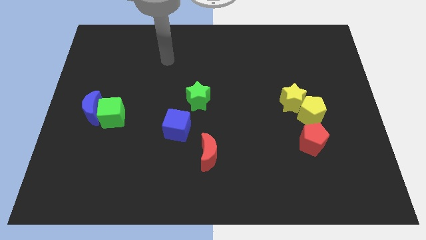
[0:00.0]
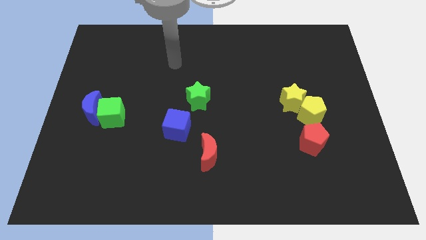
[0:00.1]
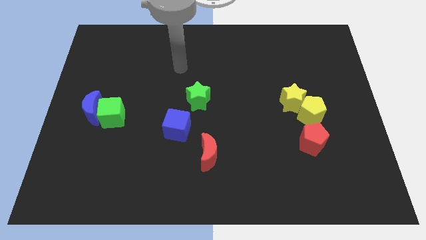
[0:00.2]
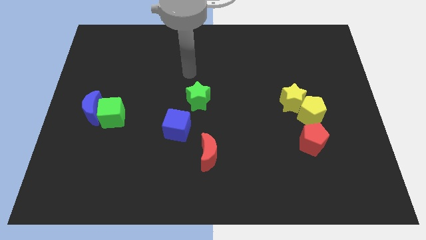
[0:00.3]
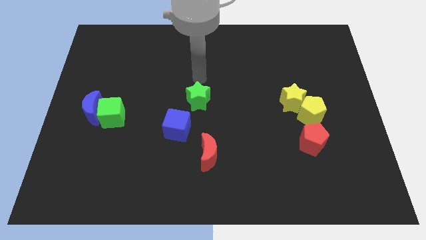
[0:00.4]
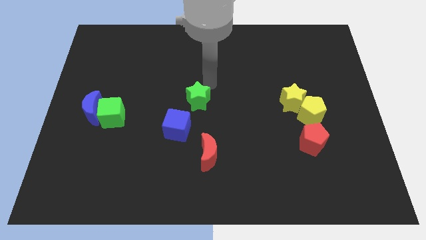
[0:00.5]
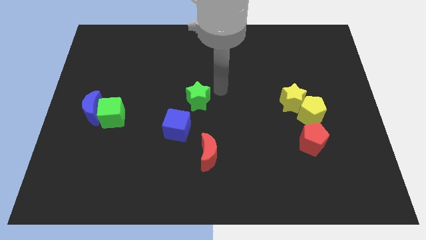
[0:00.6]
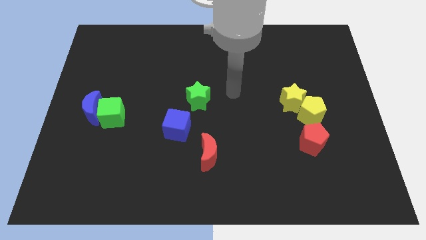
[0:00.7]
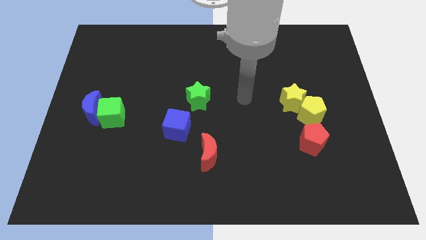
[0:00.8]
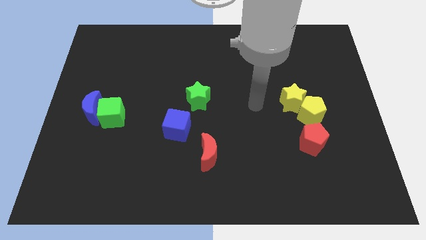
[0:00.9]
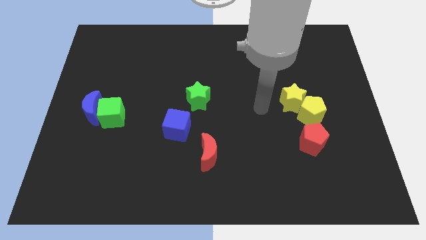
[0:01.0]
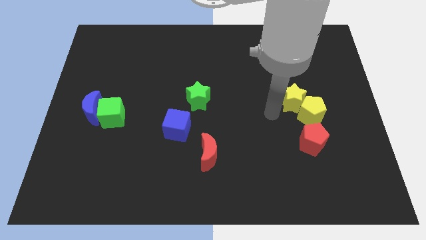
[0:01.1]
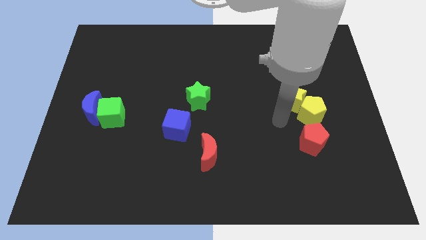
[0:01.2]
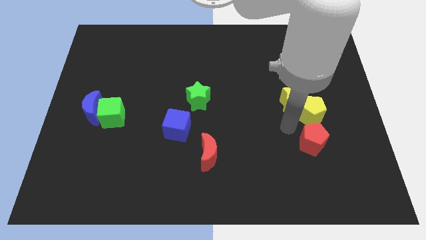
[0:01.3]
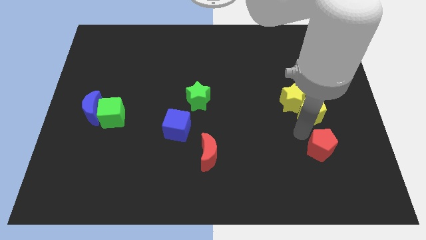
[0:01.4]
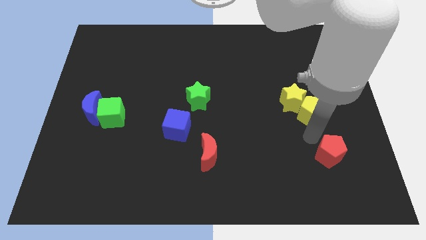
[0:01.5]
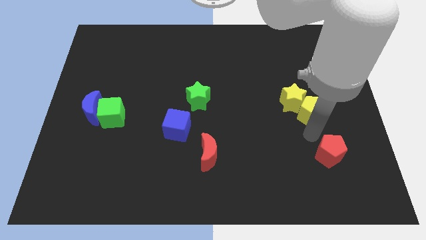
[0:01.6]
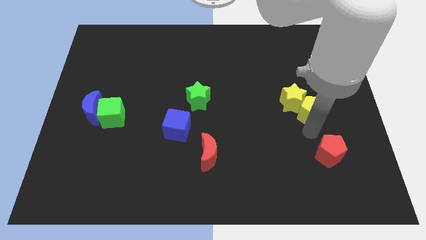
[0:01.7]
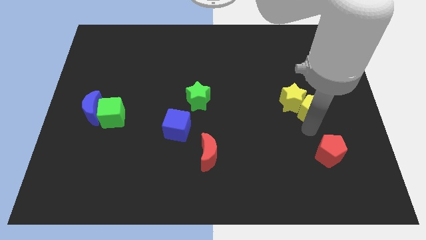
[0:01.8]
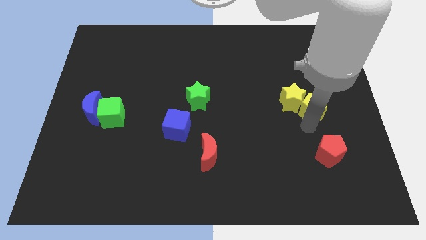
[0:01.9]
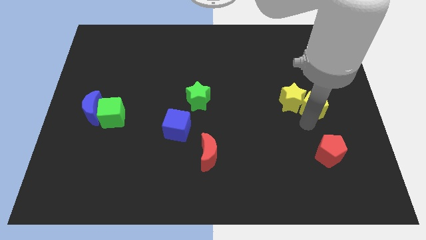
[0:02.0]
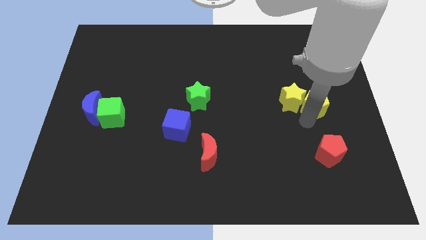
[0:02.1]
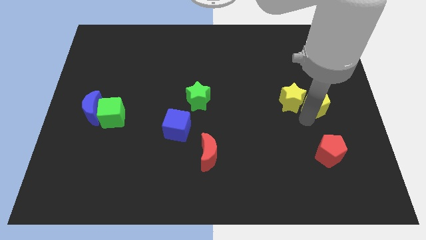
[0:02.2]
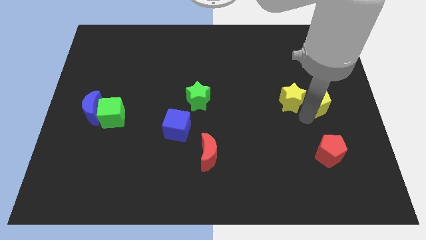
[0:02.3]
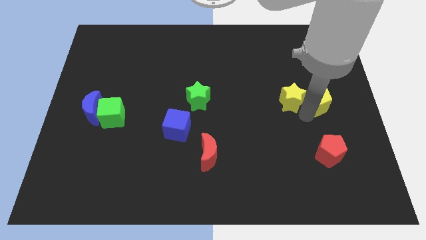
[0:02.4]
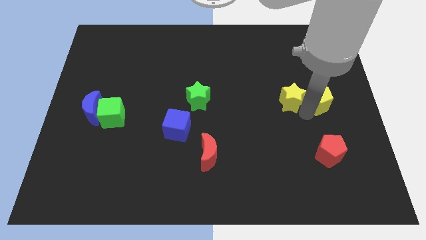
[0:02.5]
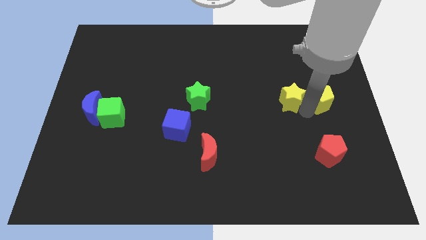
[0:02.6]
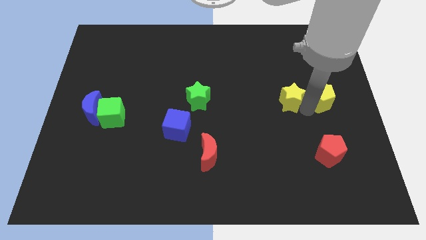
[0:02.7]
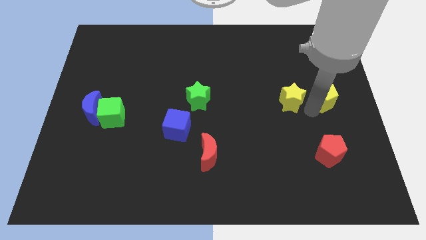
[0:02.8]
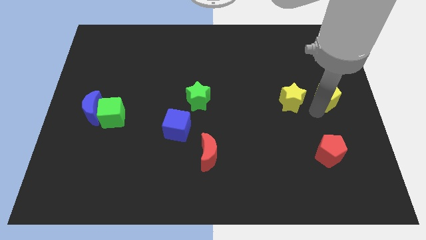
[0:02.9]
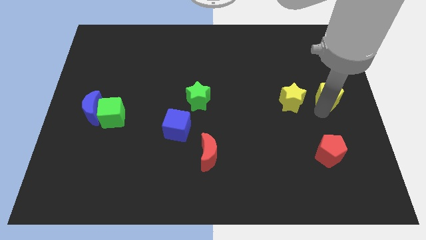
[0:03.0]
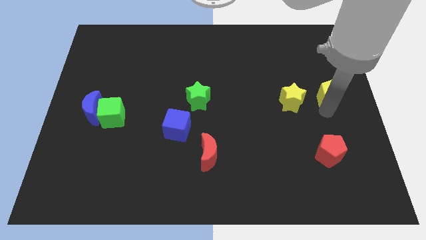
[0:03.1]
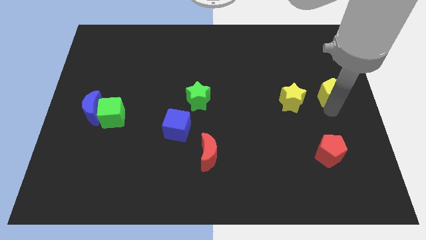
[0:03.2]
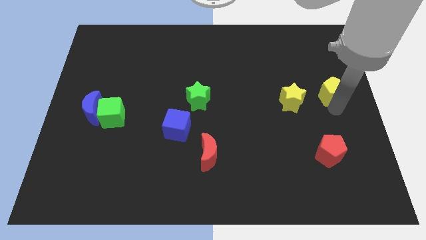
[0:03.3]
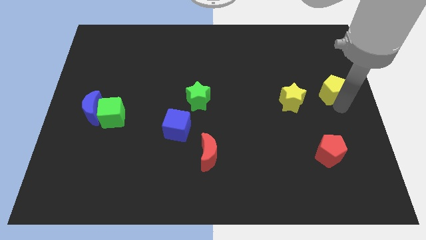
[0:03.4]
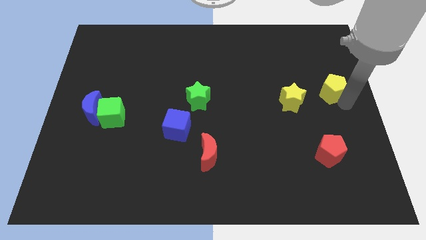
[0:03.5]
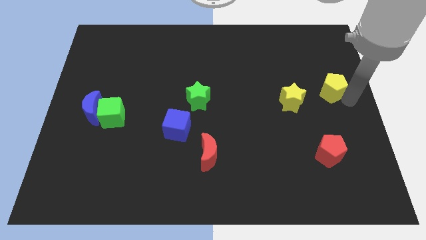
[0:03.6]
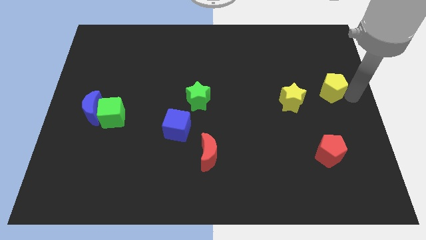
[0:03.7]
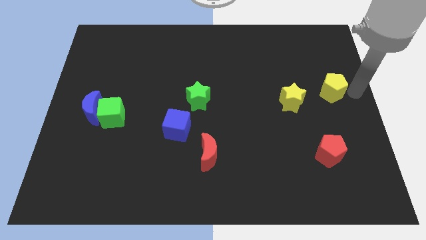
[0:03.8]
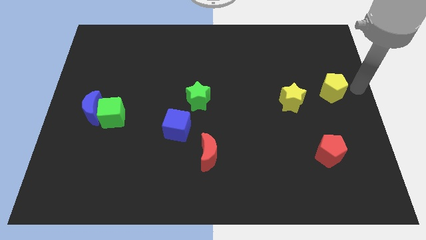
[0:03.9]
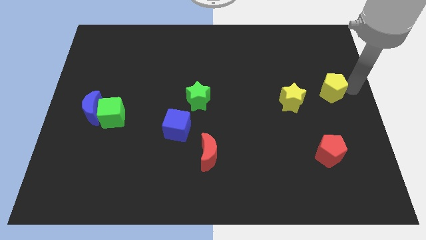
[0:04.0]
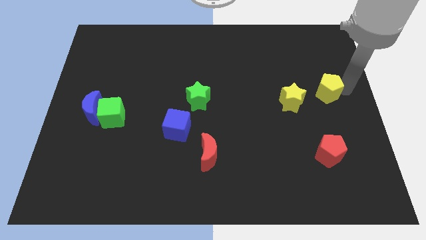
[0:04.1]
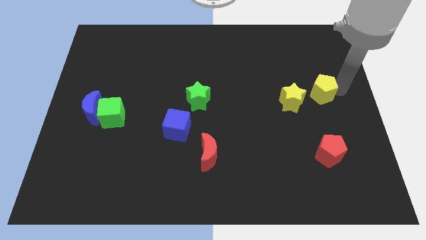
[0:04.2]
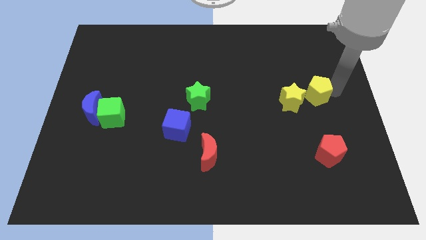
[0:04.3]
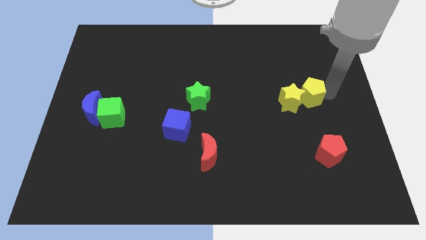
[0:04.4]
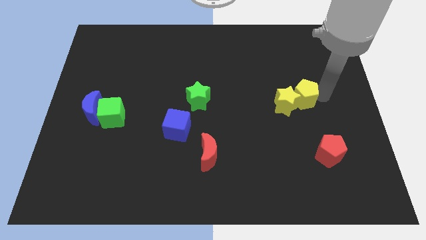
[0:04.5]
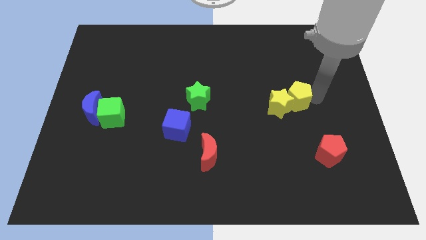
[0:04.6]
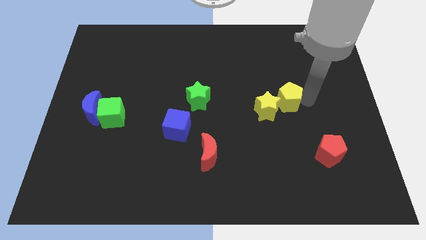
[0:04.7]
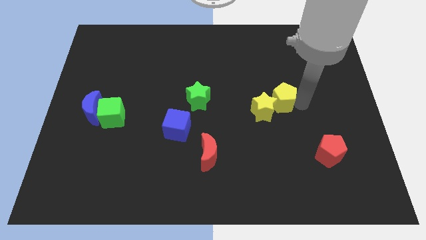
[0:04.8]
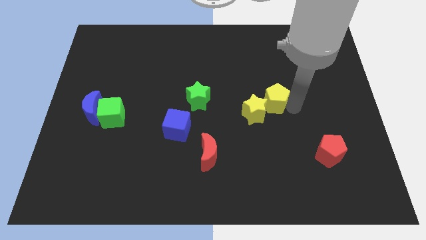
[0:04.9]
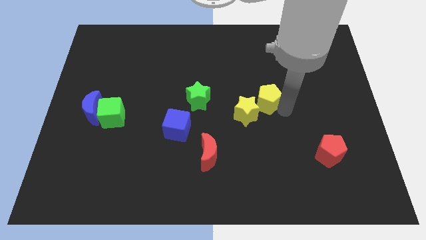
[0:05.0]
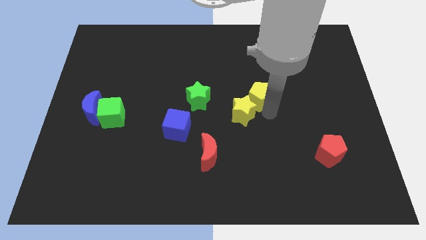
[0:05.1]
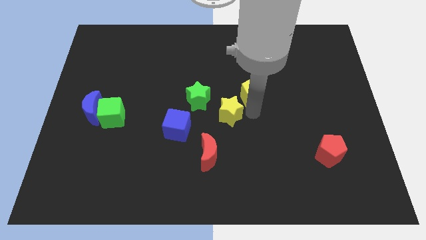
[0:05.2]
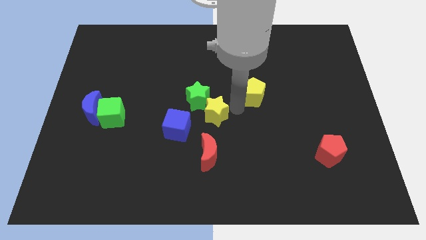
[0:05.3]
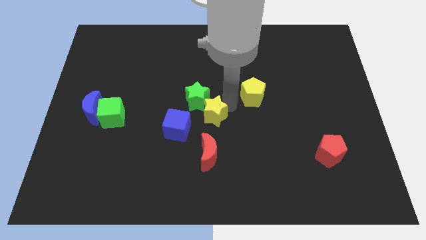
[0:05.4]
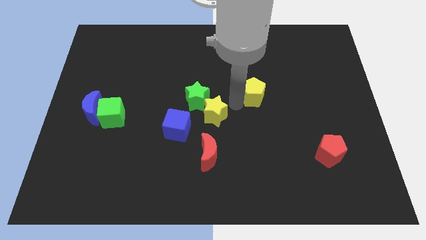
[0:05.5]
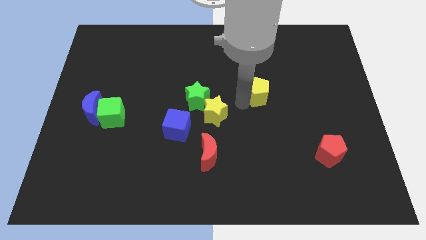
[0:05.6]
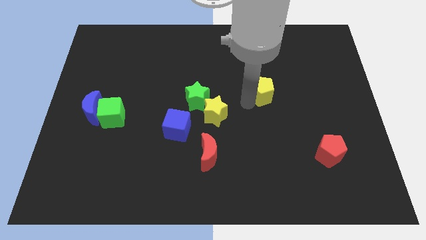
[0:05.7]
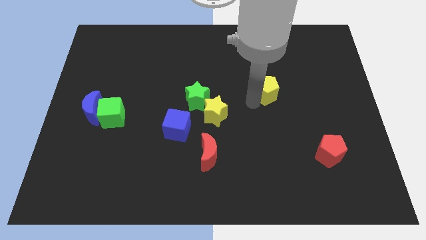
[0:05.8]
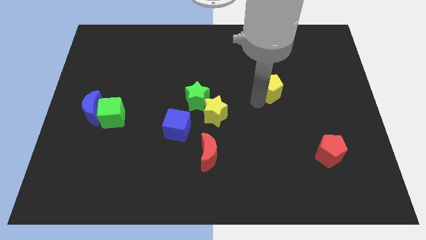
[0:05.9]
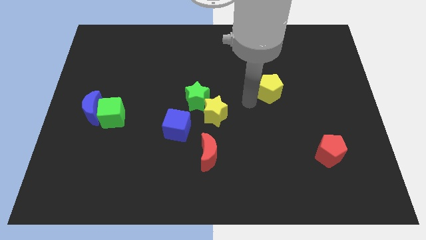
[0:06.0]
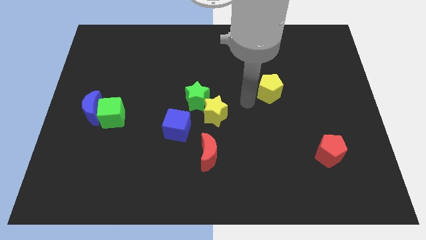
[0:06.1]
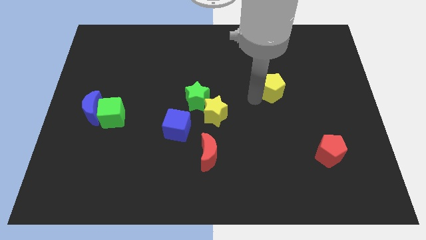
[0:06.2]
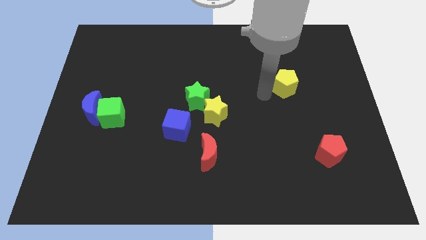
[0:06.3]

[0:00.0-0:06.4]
slide the yellow pentagon up somewhat

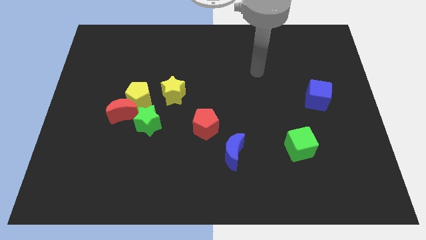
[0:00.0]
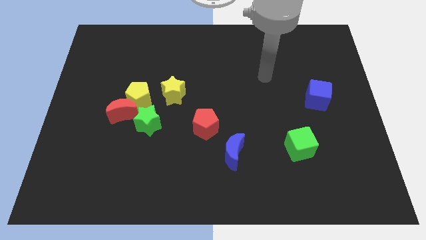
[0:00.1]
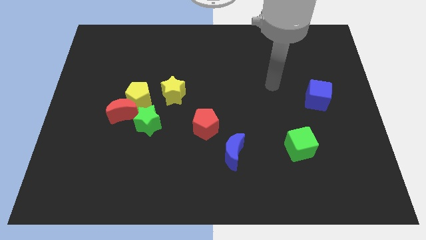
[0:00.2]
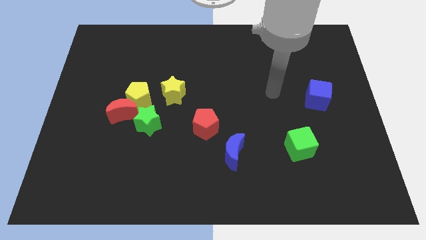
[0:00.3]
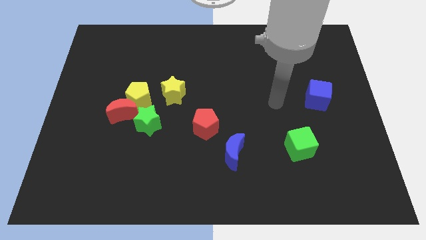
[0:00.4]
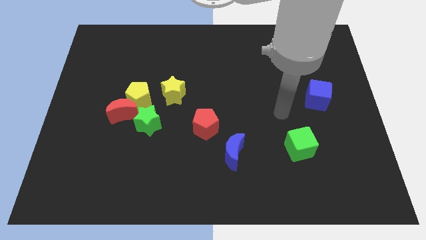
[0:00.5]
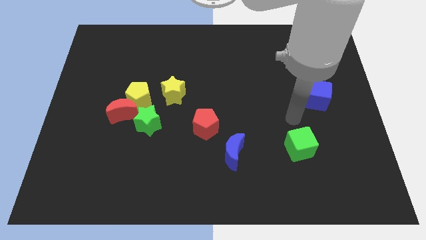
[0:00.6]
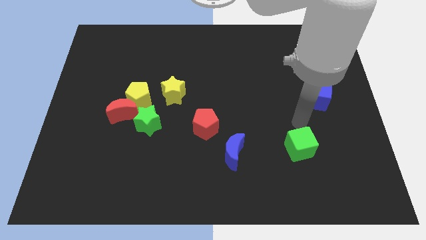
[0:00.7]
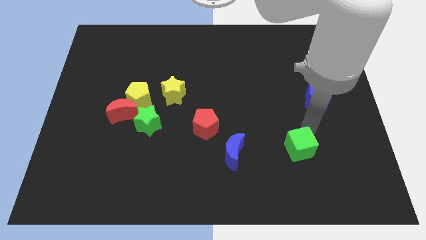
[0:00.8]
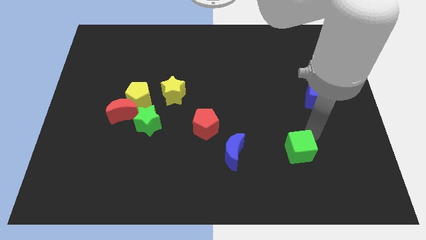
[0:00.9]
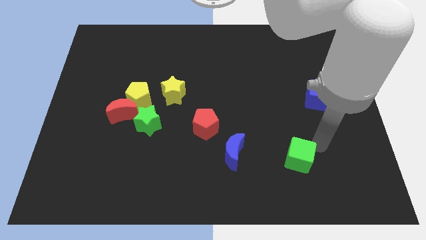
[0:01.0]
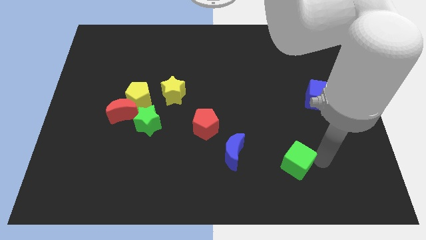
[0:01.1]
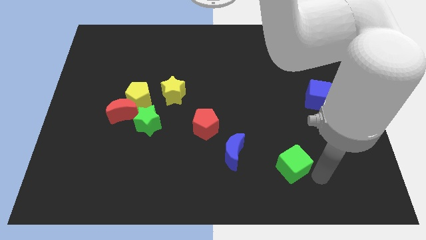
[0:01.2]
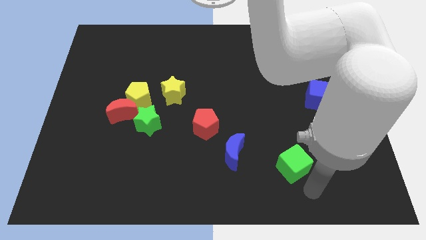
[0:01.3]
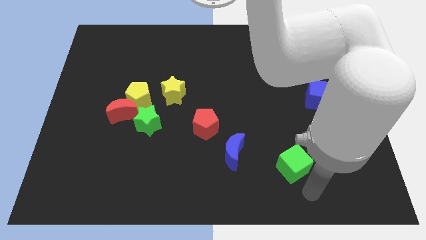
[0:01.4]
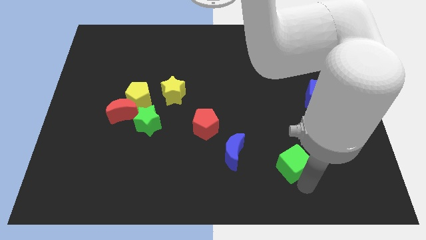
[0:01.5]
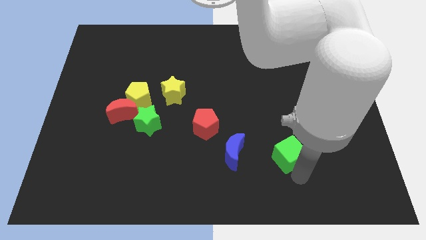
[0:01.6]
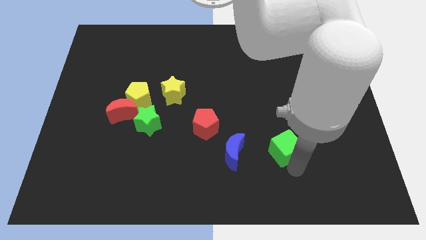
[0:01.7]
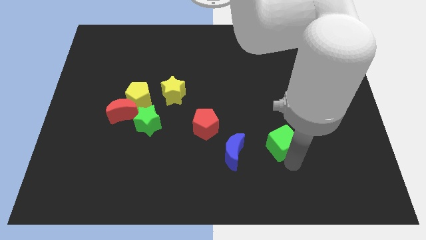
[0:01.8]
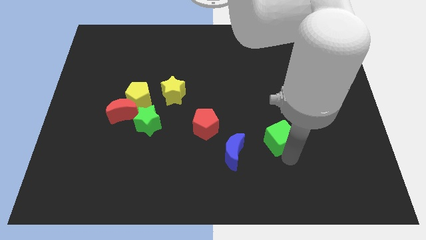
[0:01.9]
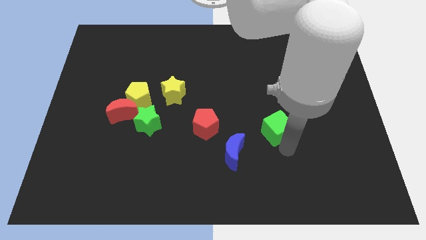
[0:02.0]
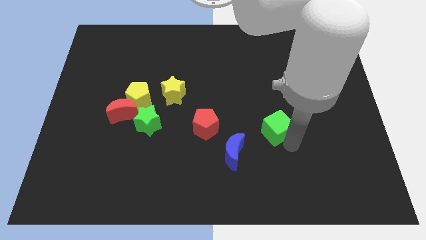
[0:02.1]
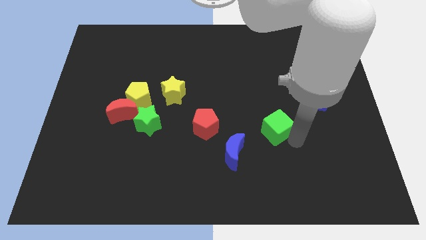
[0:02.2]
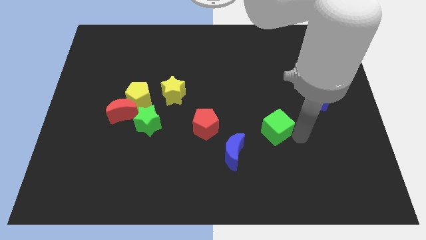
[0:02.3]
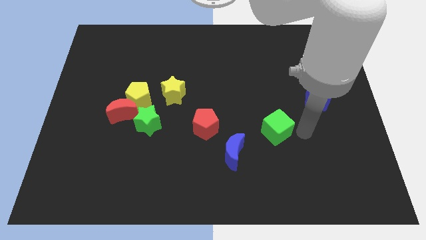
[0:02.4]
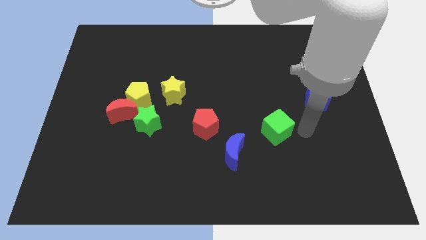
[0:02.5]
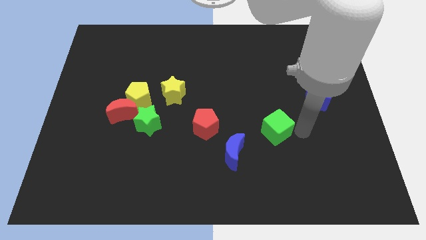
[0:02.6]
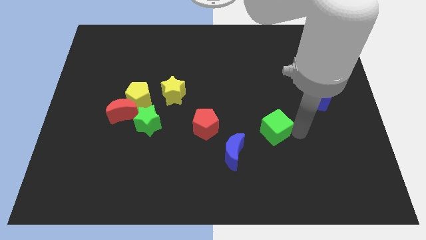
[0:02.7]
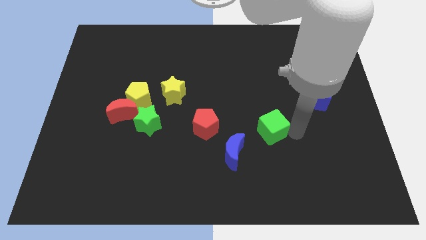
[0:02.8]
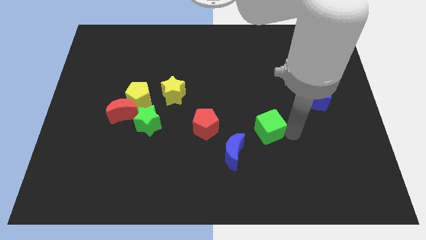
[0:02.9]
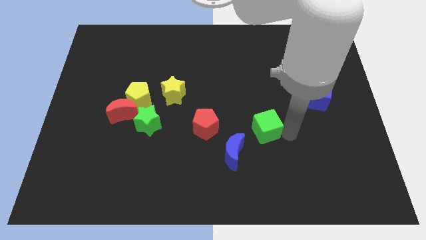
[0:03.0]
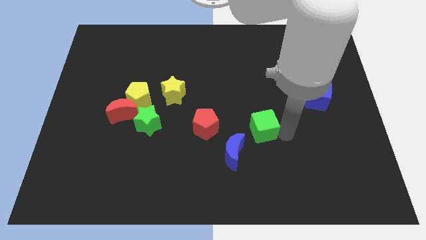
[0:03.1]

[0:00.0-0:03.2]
move the green cube a little bit to the left
